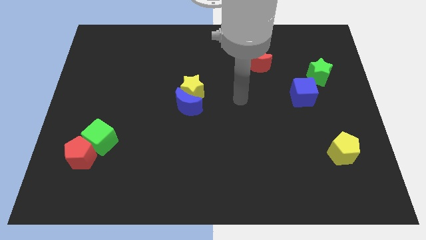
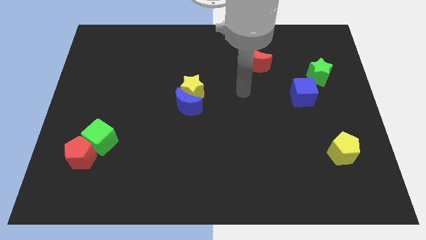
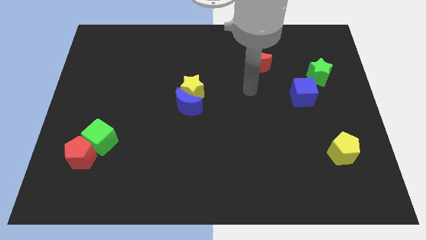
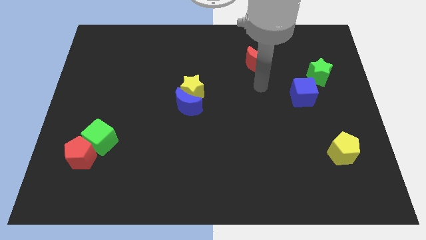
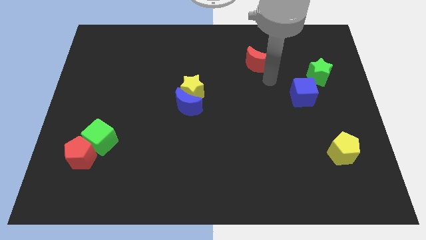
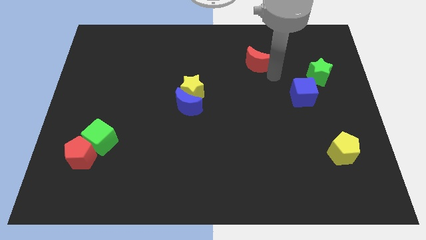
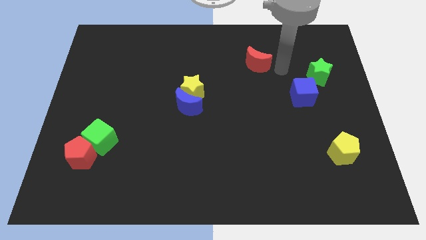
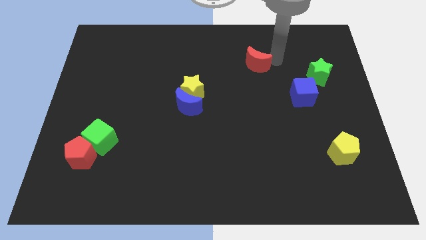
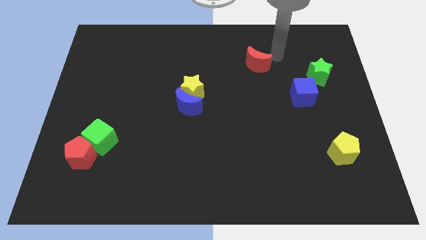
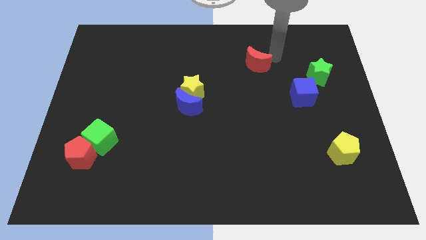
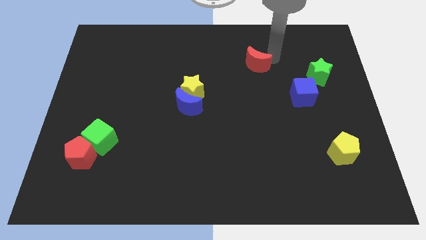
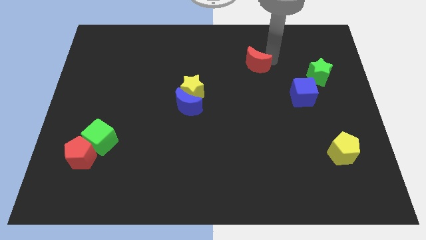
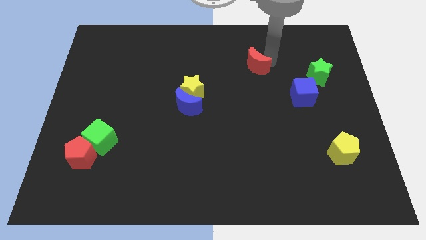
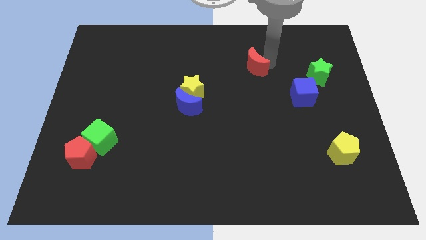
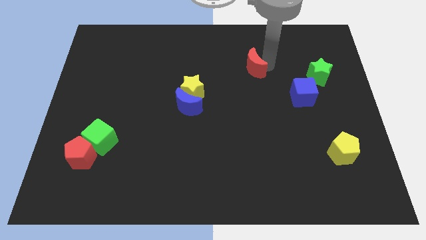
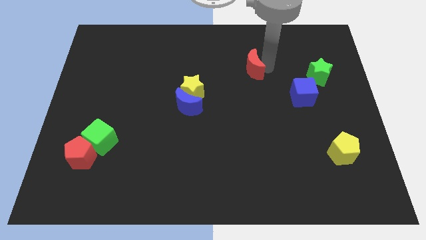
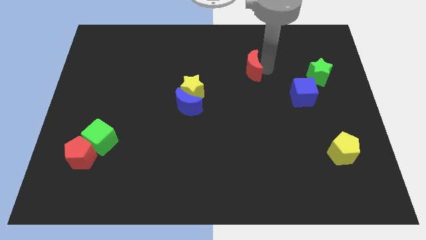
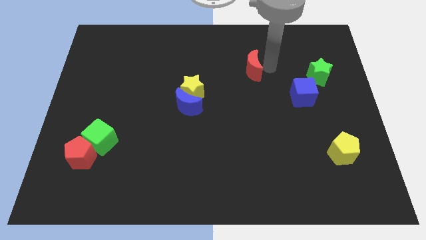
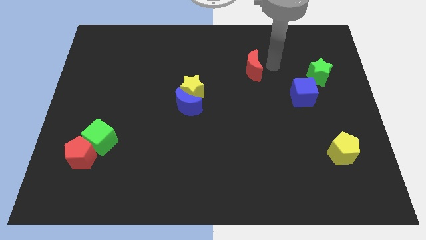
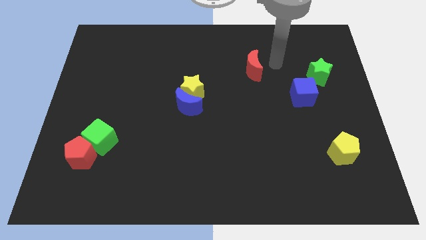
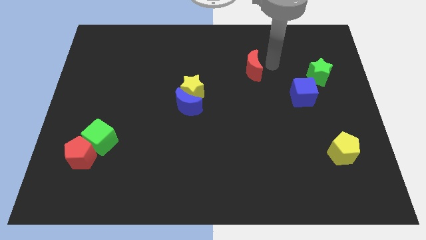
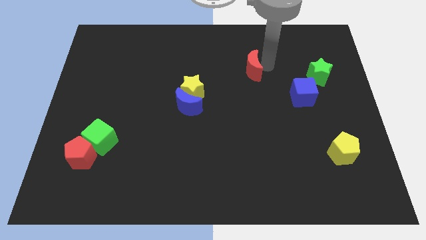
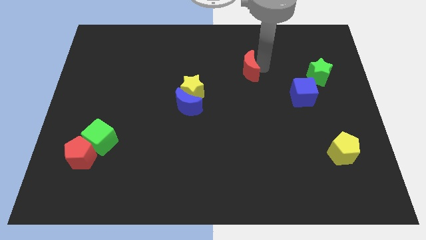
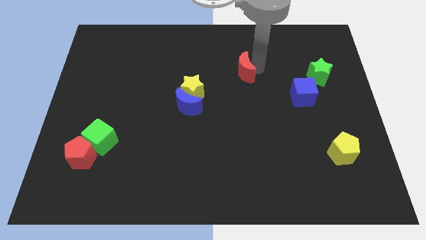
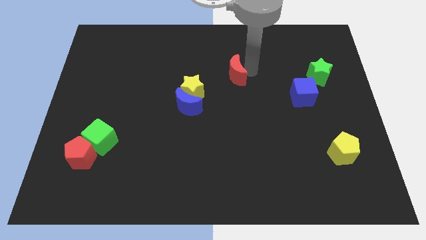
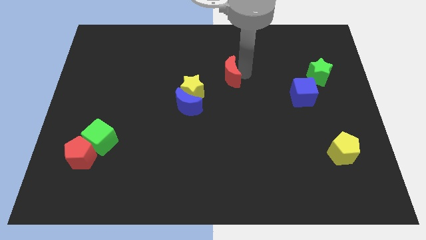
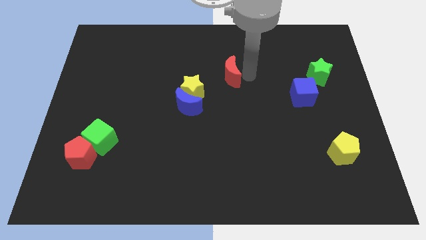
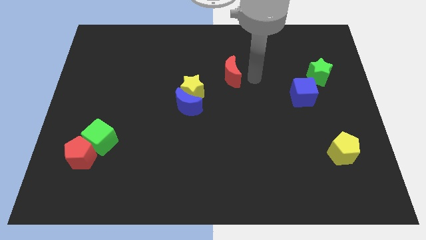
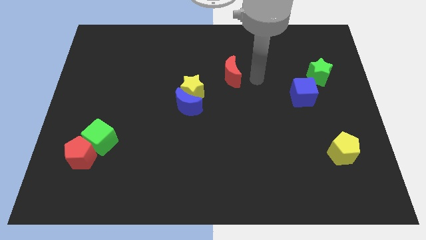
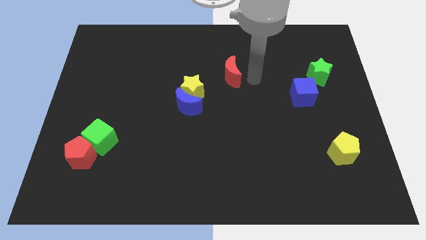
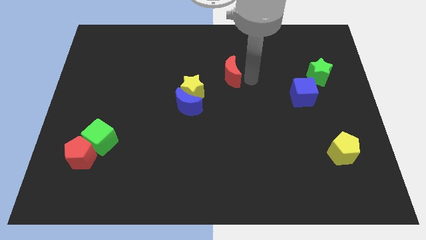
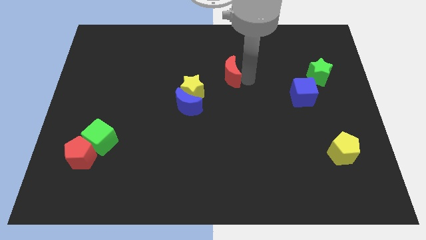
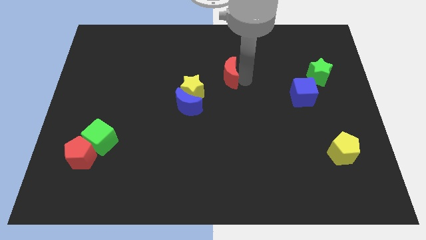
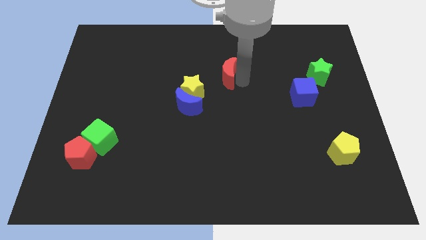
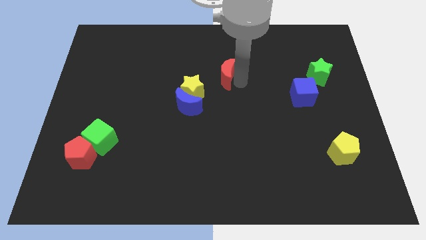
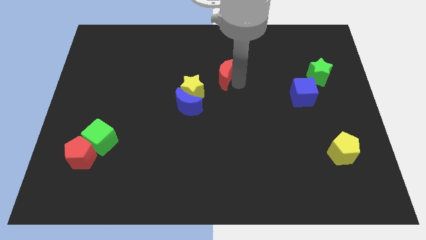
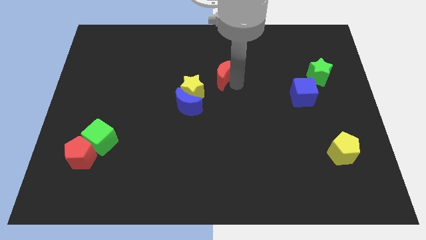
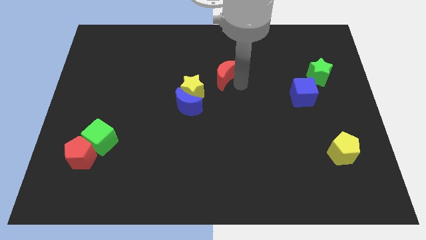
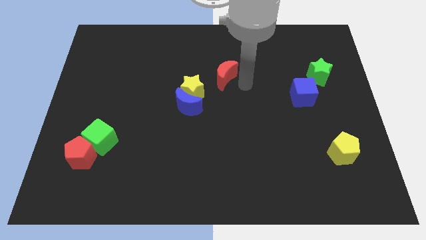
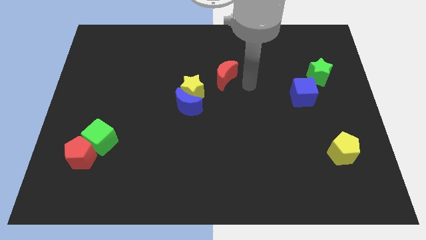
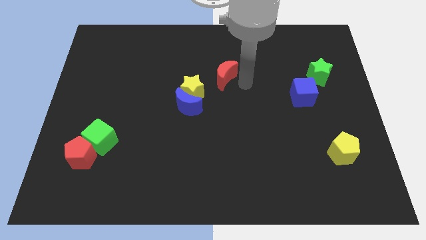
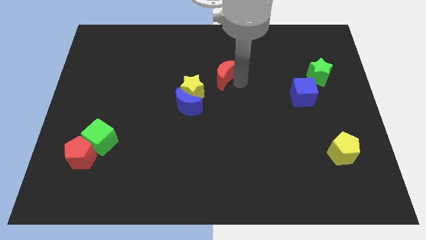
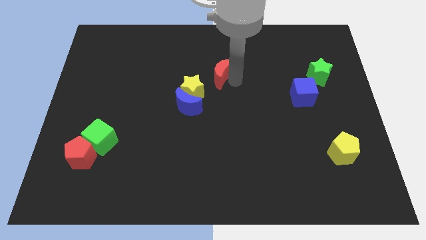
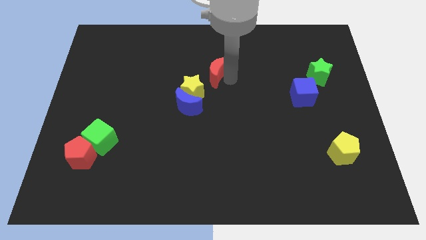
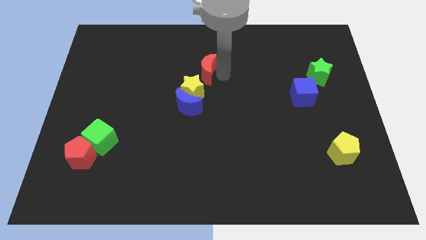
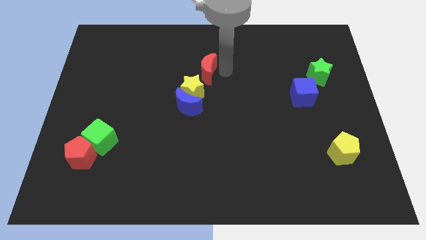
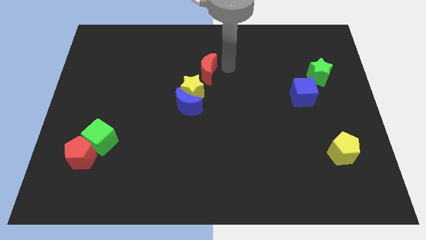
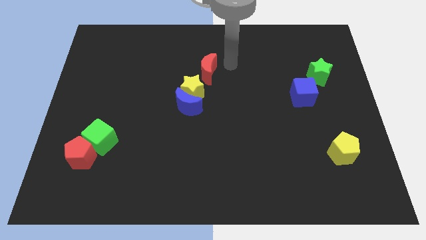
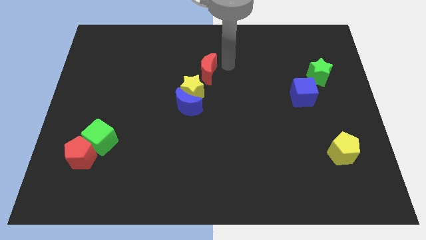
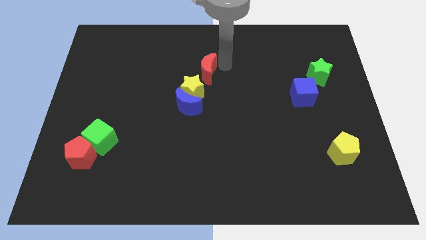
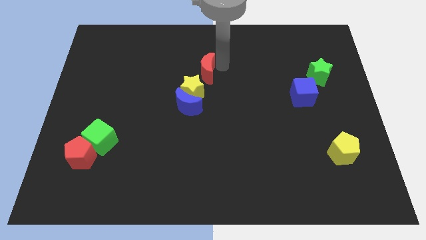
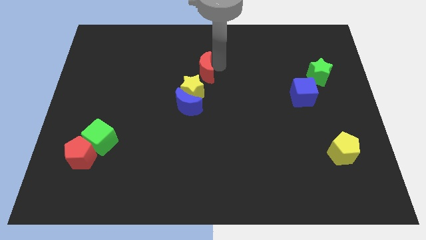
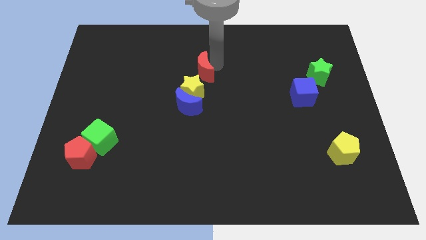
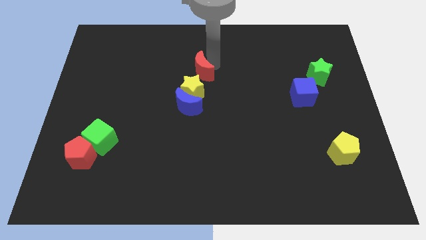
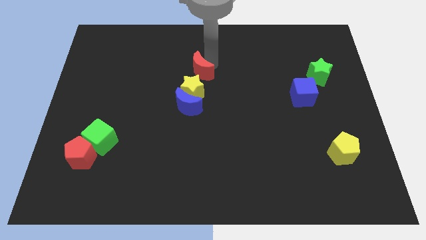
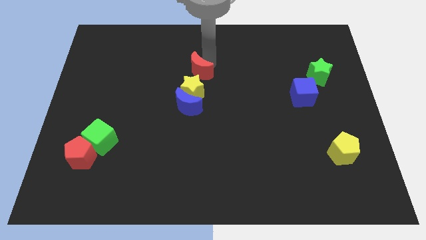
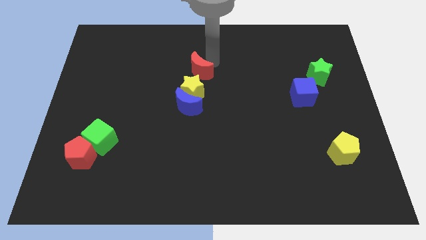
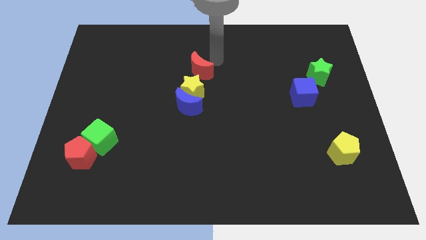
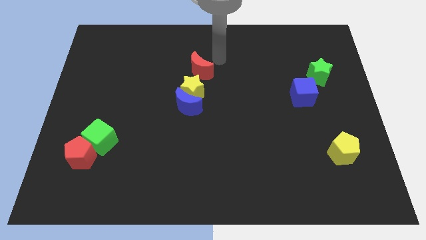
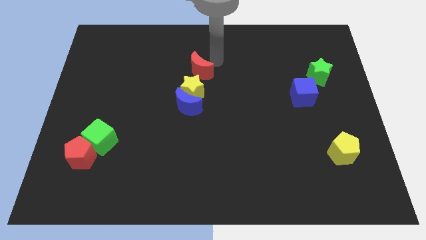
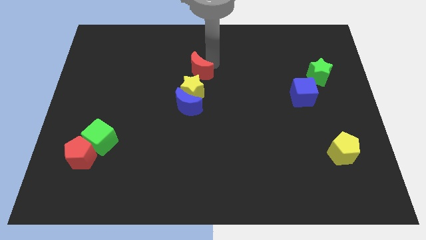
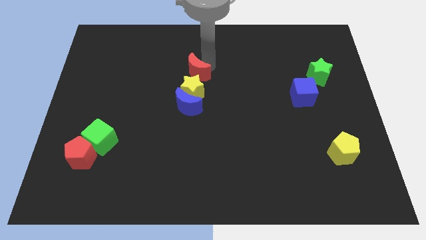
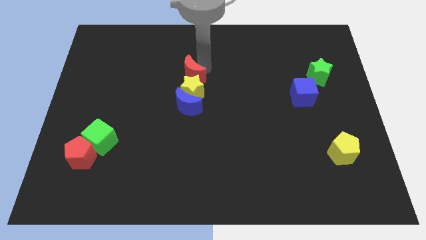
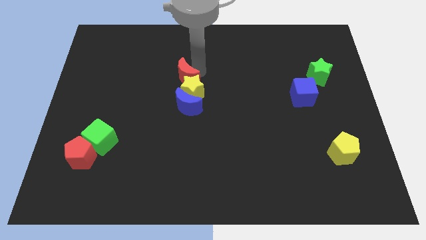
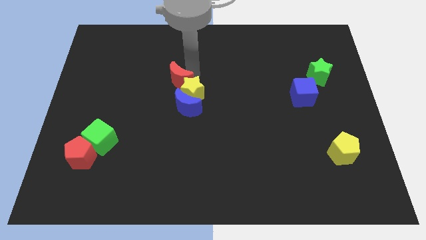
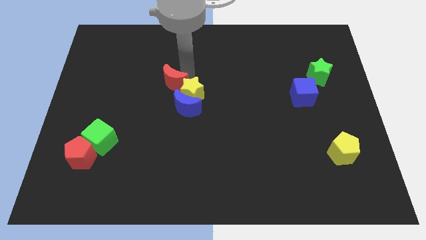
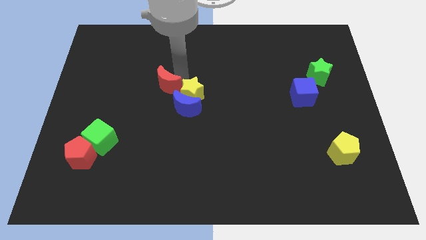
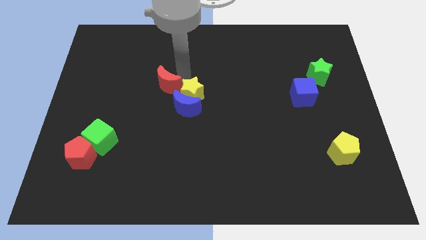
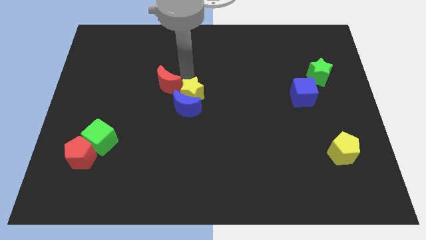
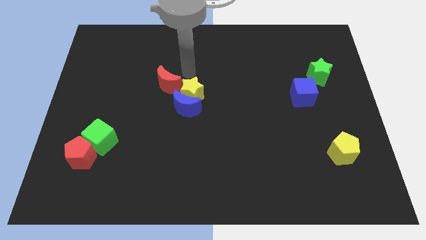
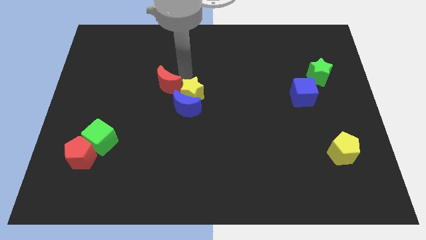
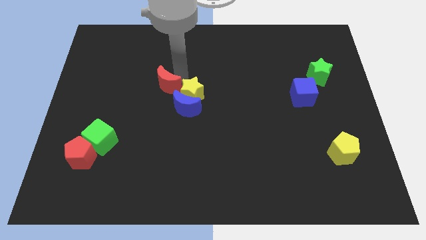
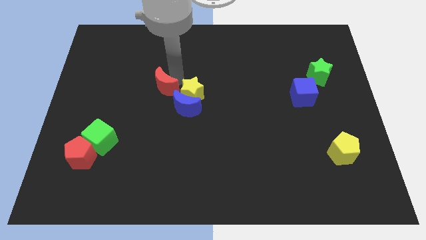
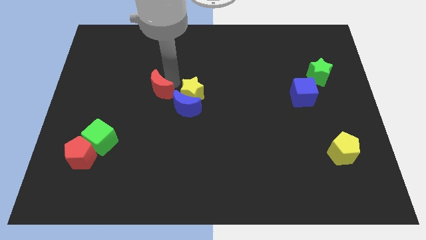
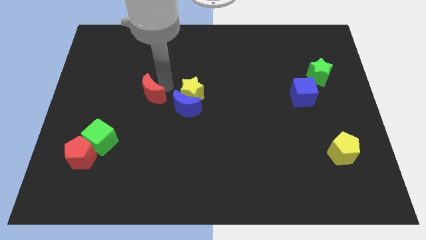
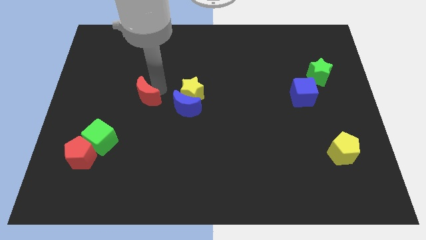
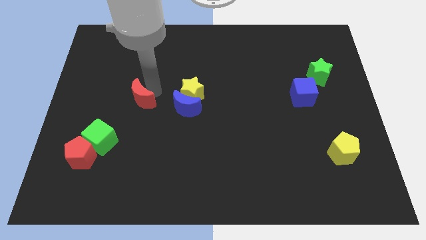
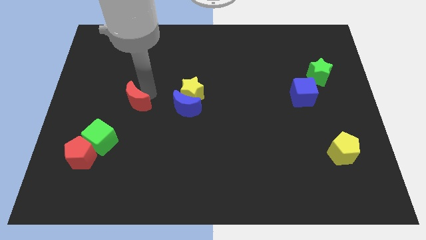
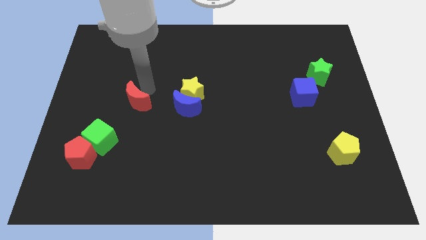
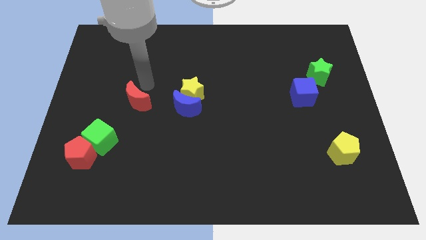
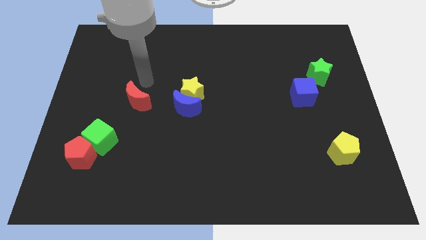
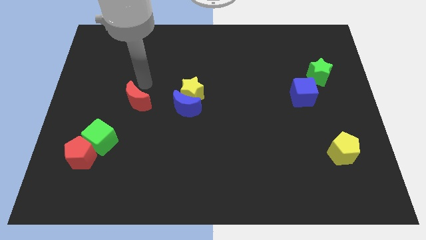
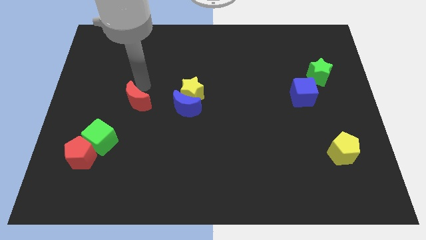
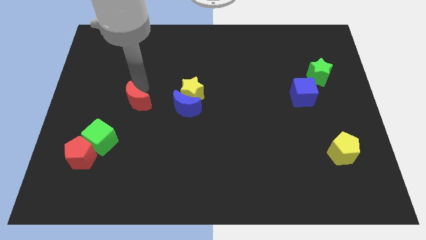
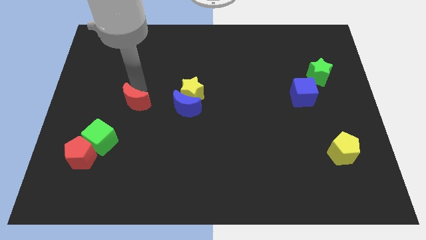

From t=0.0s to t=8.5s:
push the red moon diagonally up and to the right of the green cube
